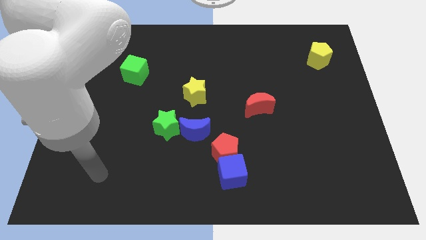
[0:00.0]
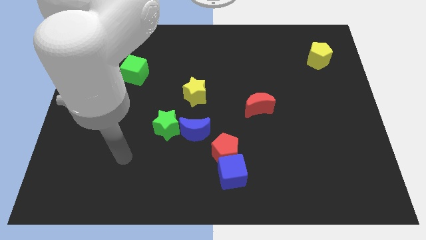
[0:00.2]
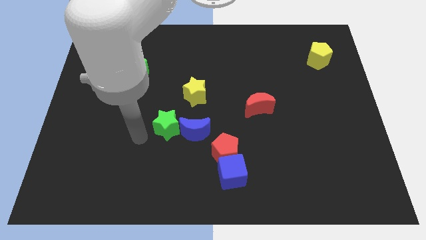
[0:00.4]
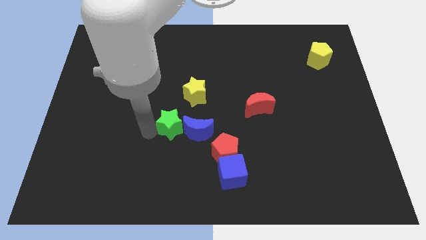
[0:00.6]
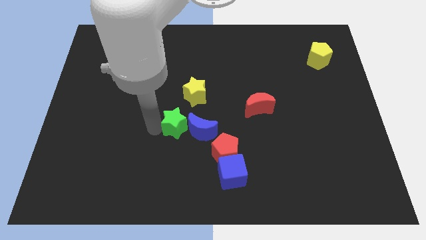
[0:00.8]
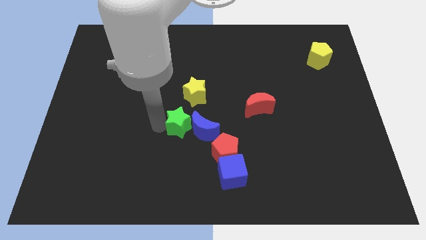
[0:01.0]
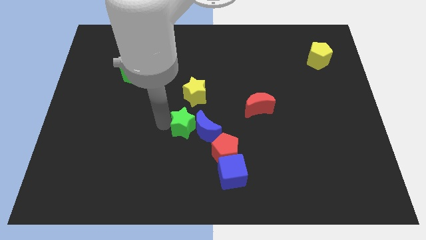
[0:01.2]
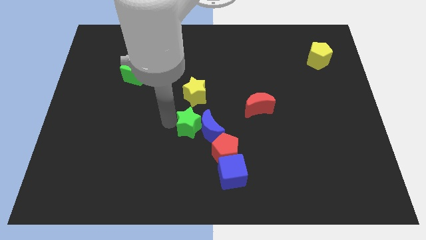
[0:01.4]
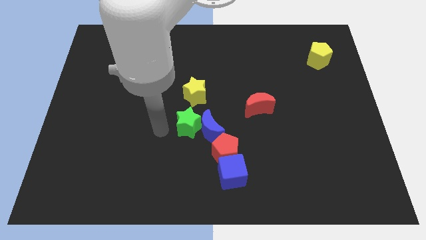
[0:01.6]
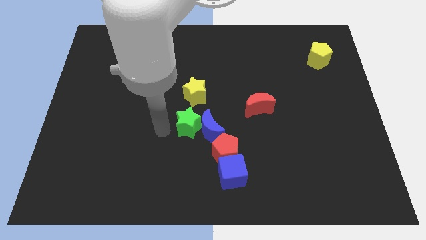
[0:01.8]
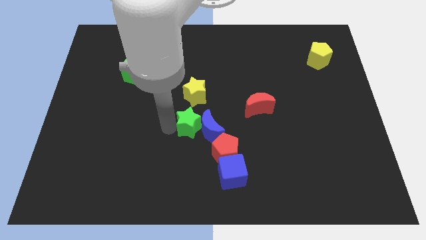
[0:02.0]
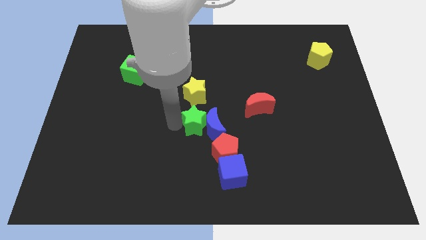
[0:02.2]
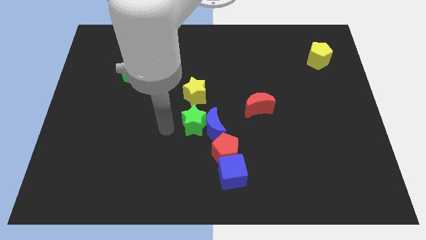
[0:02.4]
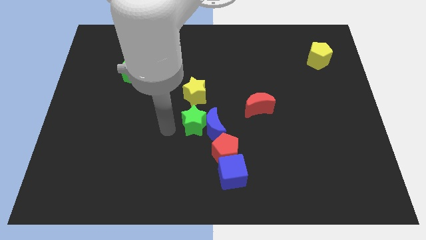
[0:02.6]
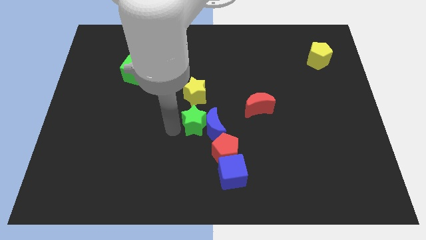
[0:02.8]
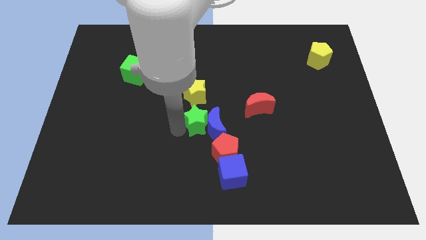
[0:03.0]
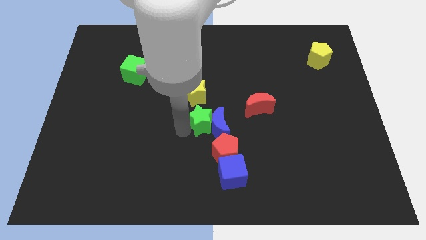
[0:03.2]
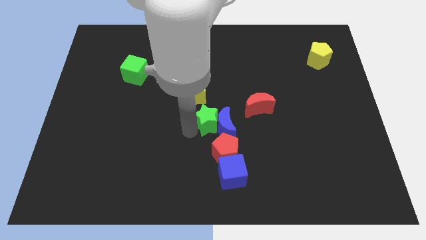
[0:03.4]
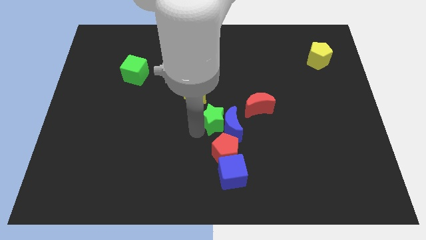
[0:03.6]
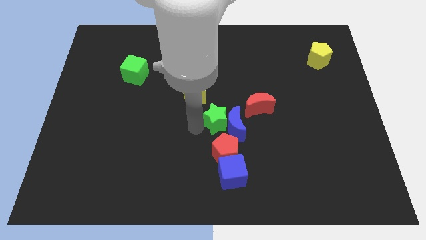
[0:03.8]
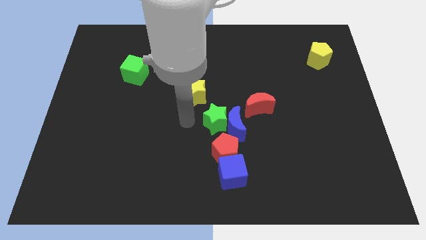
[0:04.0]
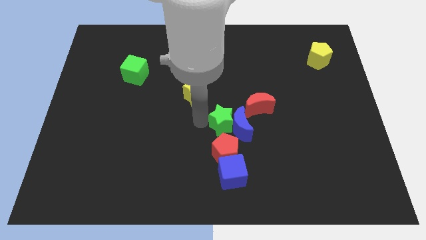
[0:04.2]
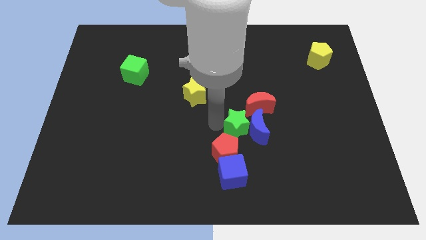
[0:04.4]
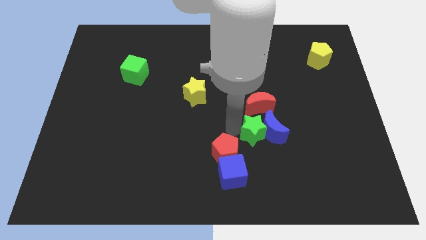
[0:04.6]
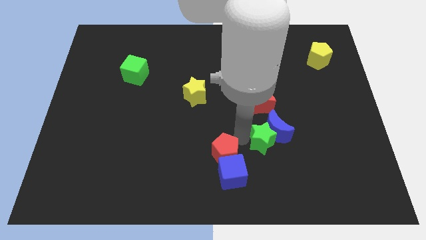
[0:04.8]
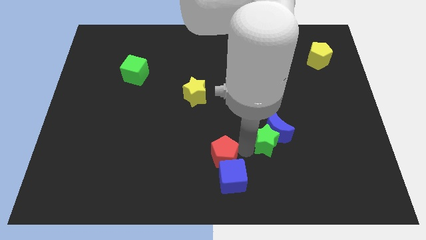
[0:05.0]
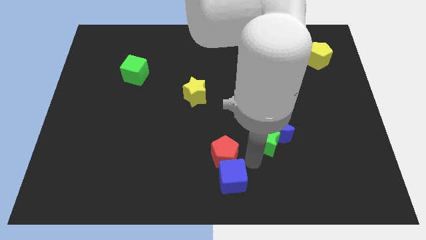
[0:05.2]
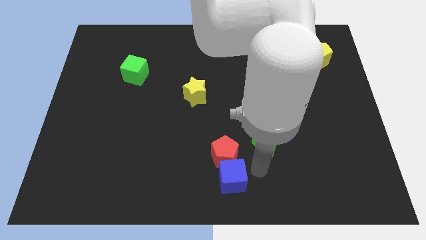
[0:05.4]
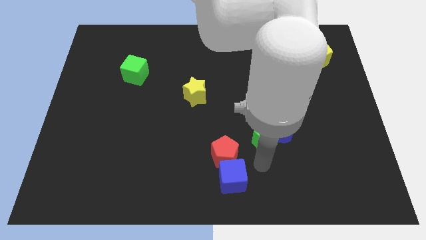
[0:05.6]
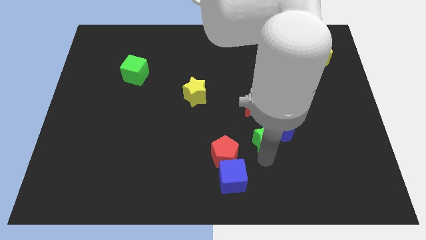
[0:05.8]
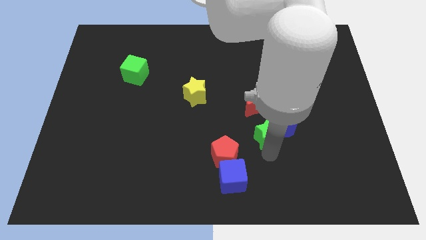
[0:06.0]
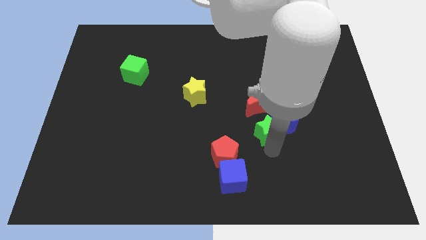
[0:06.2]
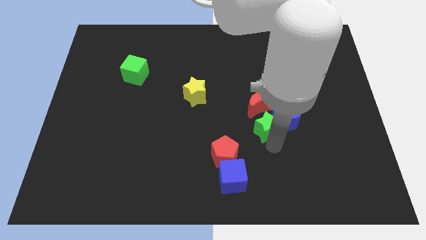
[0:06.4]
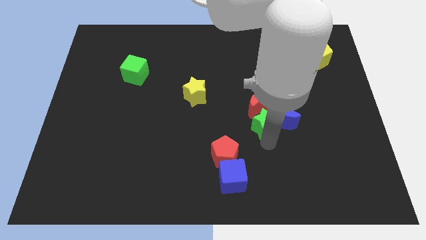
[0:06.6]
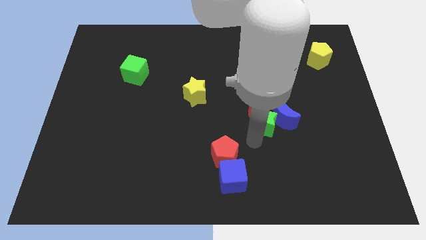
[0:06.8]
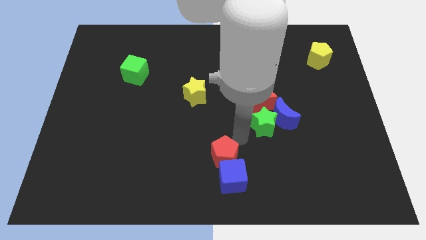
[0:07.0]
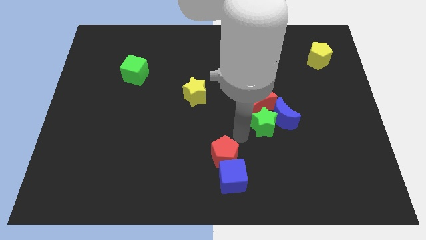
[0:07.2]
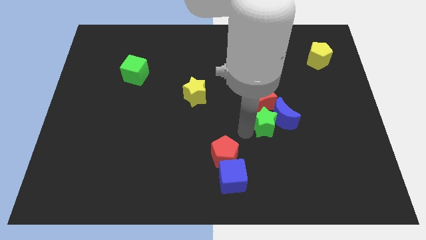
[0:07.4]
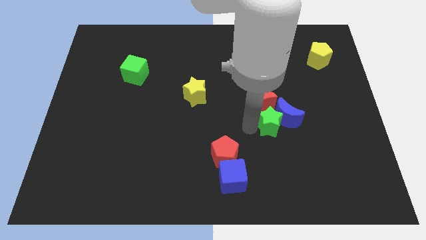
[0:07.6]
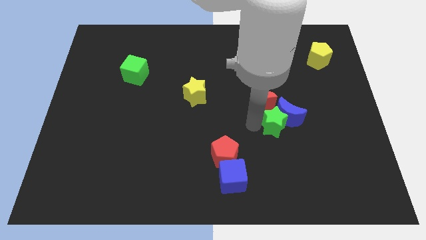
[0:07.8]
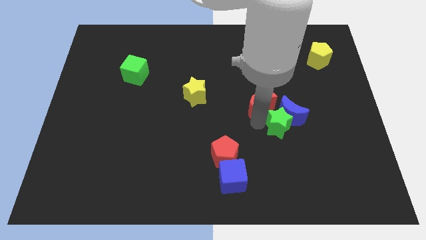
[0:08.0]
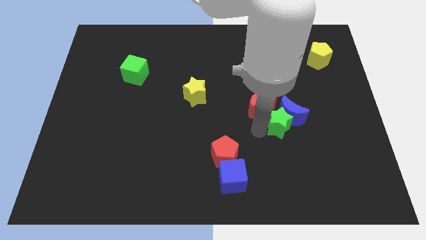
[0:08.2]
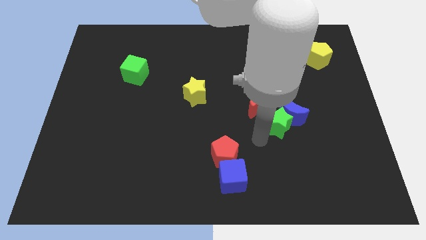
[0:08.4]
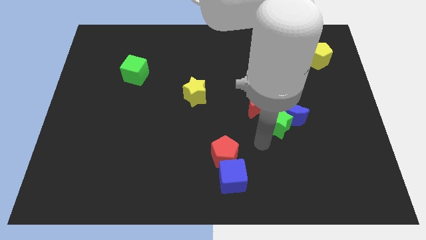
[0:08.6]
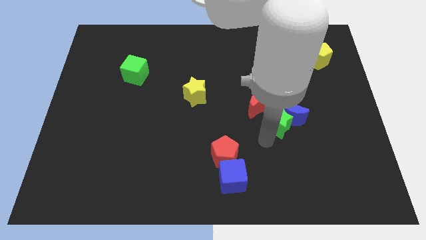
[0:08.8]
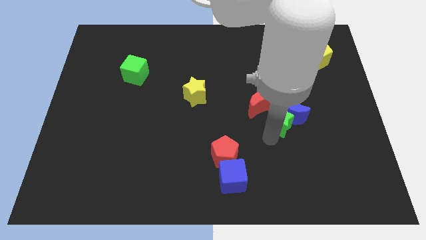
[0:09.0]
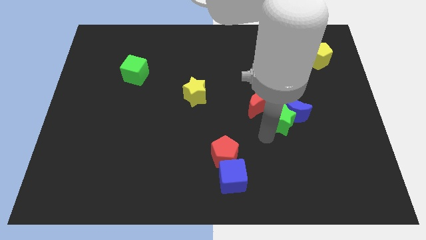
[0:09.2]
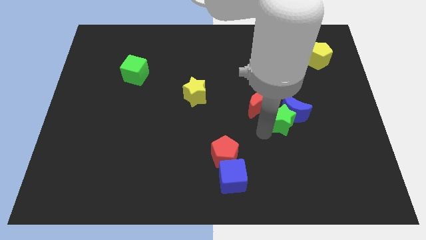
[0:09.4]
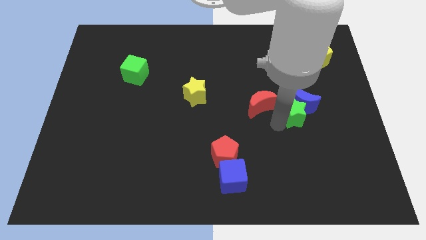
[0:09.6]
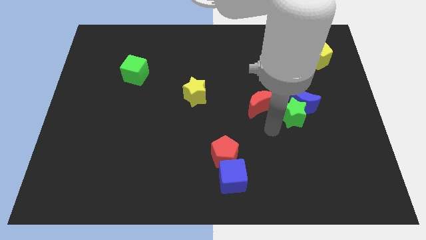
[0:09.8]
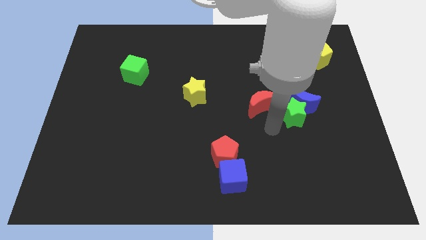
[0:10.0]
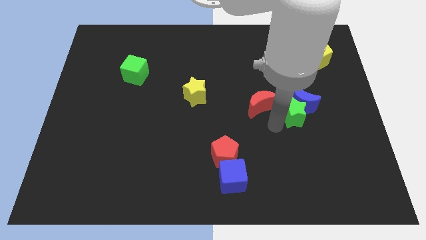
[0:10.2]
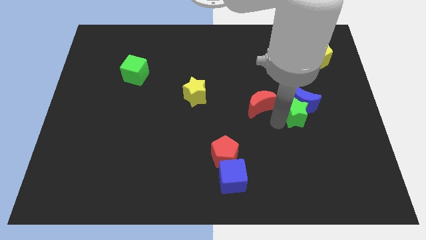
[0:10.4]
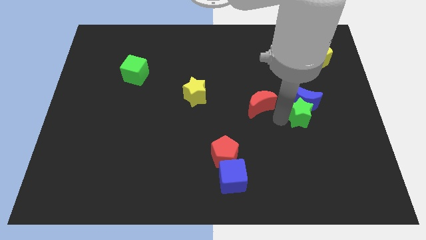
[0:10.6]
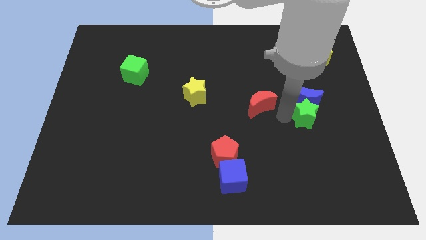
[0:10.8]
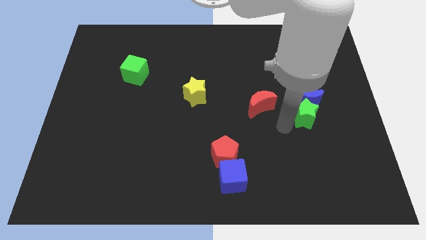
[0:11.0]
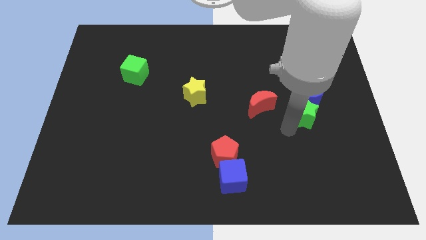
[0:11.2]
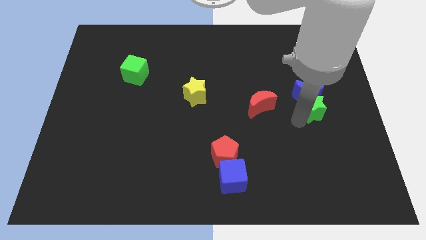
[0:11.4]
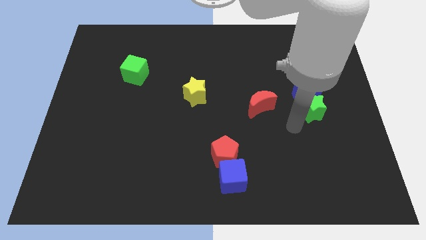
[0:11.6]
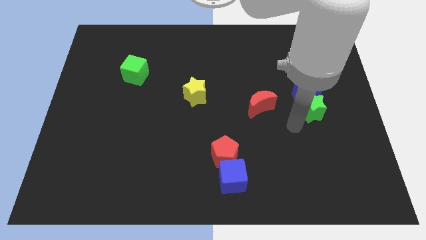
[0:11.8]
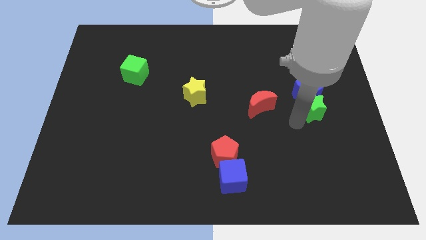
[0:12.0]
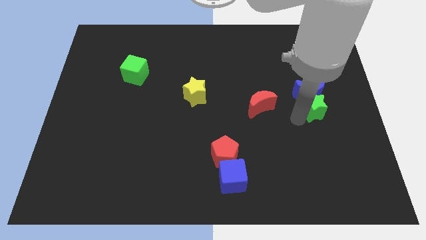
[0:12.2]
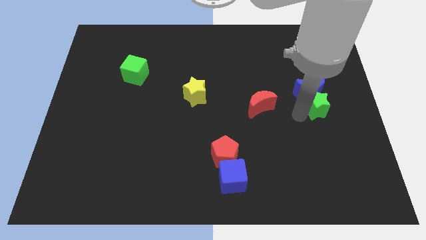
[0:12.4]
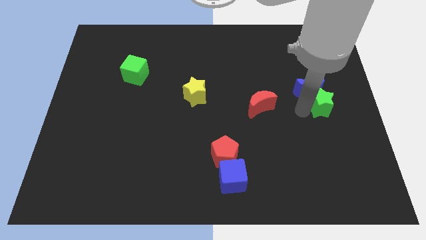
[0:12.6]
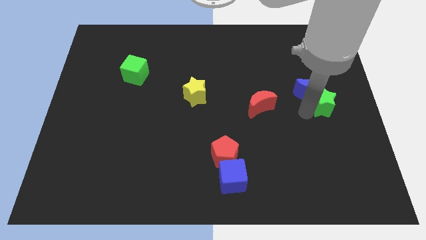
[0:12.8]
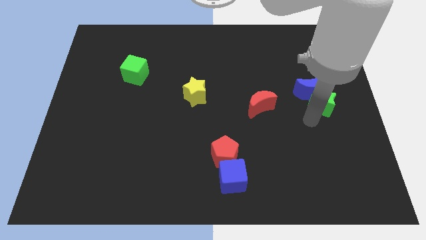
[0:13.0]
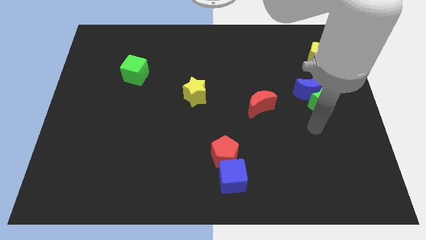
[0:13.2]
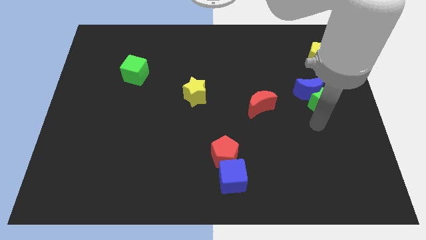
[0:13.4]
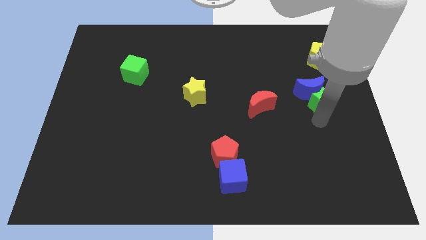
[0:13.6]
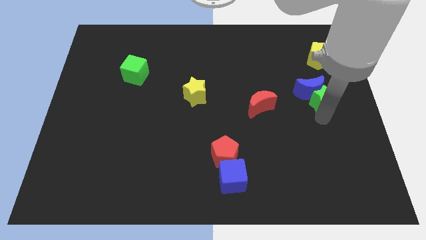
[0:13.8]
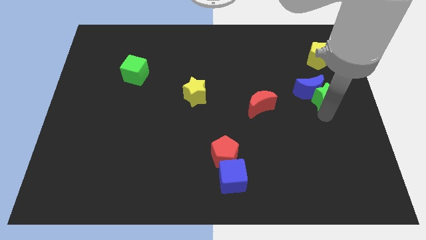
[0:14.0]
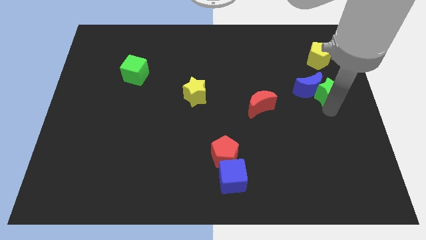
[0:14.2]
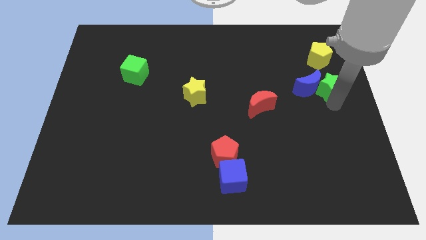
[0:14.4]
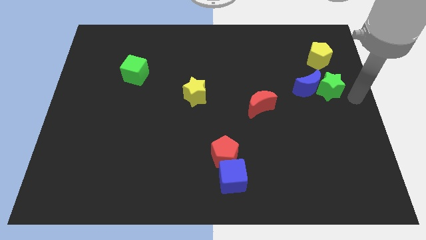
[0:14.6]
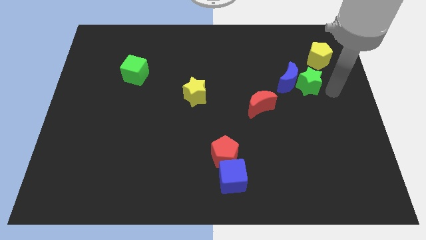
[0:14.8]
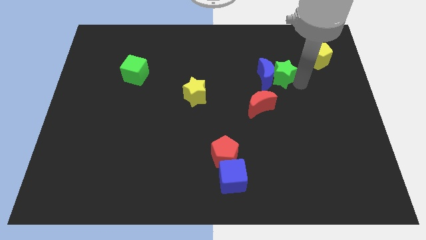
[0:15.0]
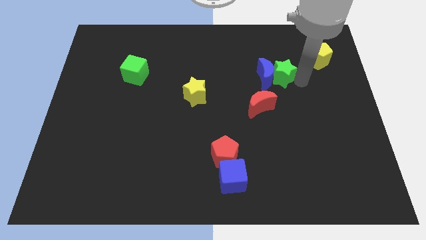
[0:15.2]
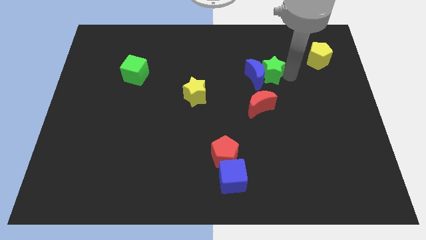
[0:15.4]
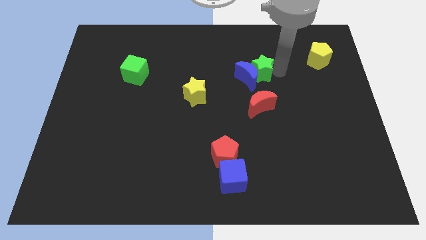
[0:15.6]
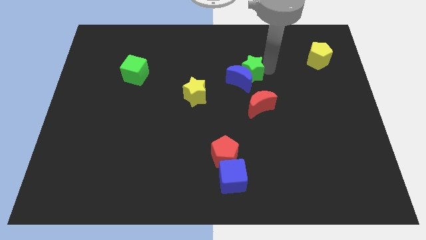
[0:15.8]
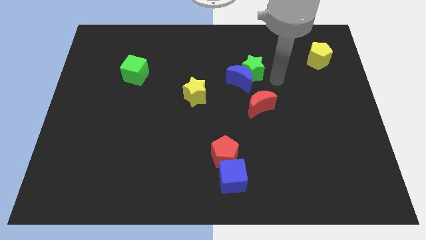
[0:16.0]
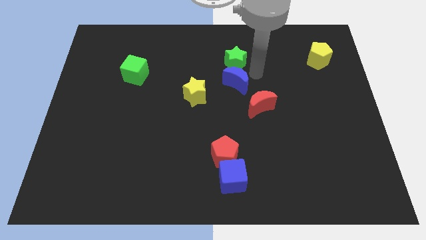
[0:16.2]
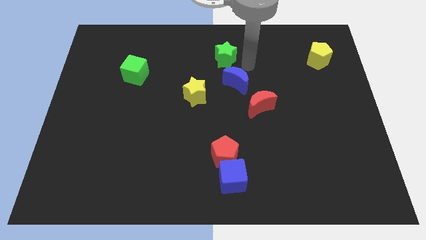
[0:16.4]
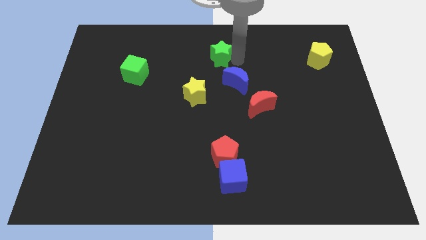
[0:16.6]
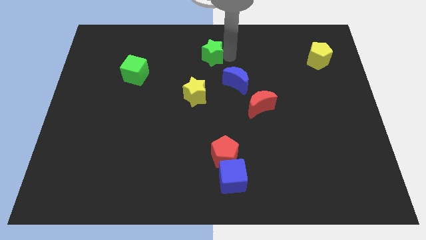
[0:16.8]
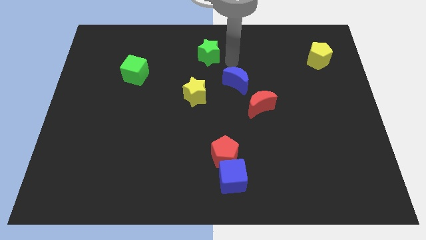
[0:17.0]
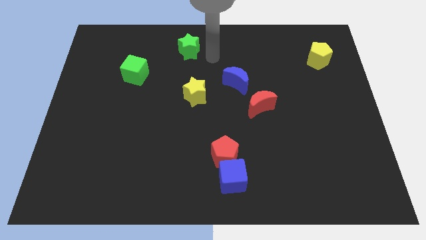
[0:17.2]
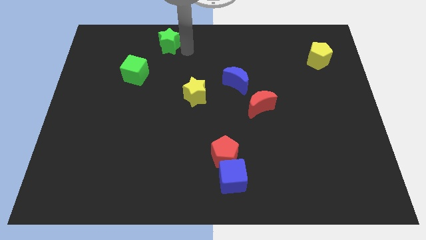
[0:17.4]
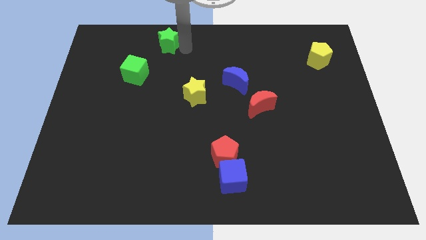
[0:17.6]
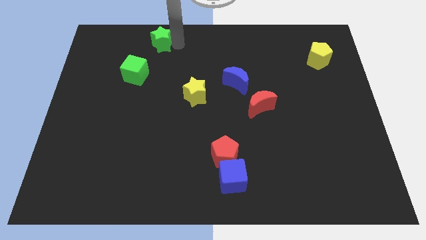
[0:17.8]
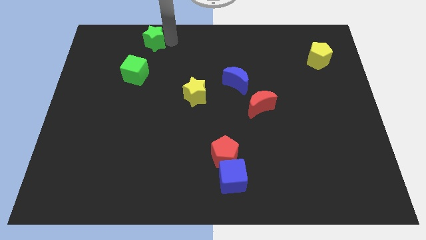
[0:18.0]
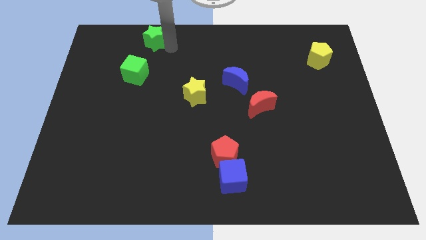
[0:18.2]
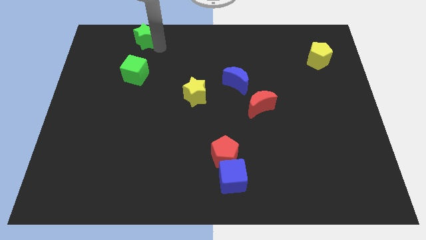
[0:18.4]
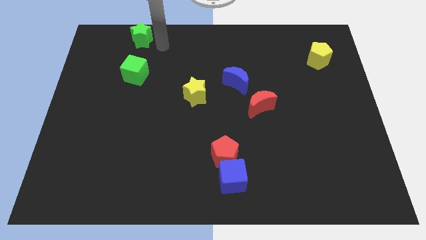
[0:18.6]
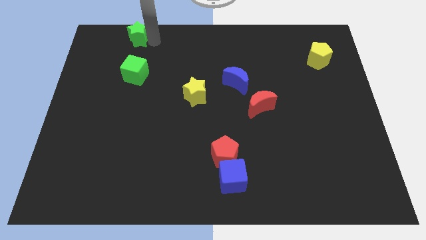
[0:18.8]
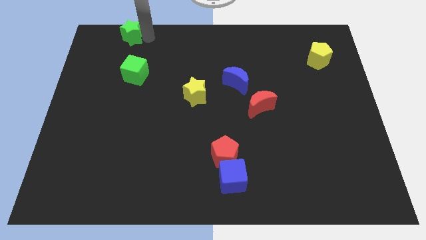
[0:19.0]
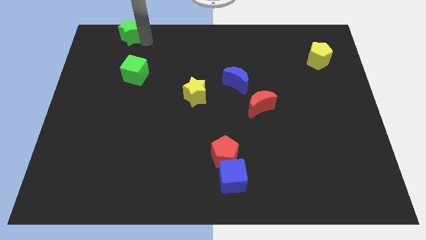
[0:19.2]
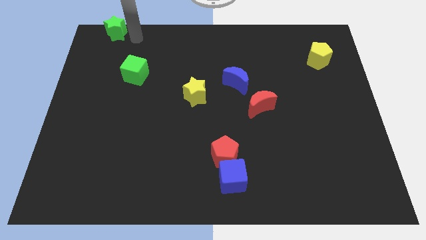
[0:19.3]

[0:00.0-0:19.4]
move the green star to the top left
